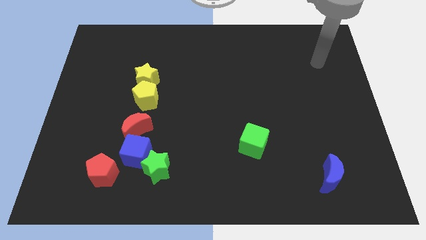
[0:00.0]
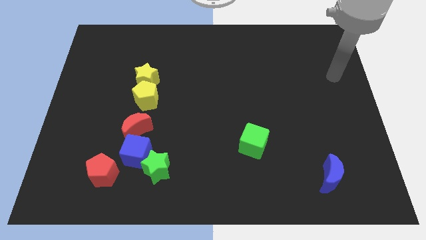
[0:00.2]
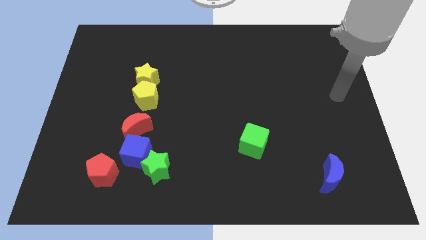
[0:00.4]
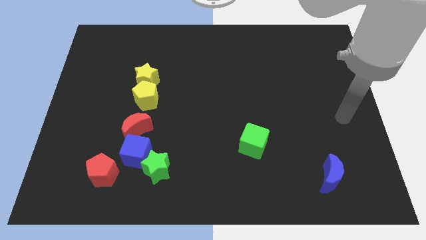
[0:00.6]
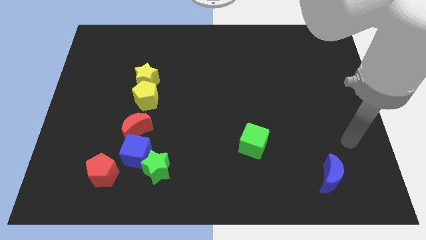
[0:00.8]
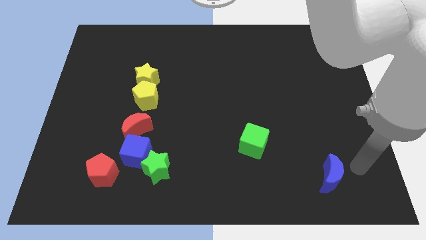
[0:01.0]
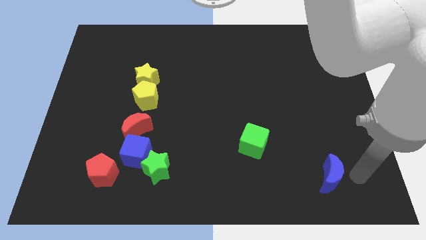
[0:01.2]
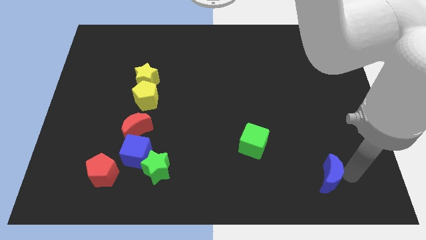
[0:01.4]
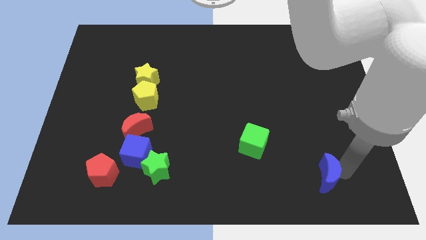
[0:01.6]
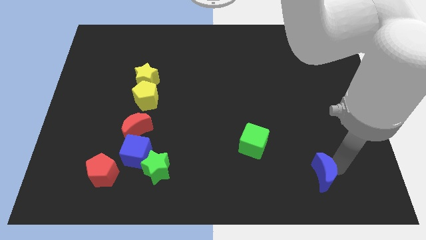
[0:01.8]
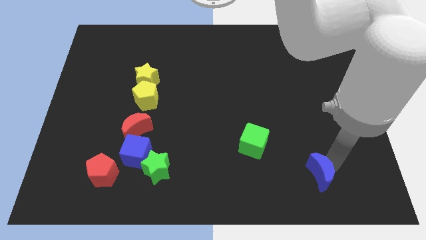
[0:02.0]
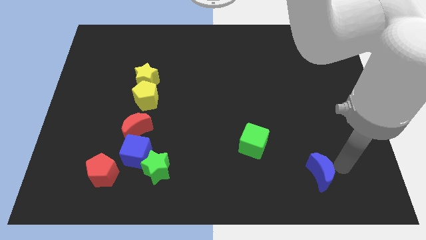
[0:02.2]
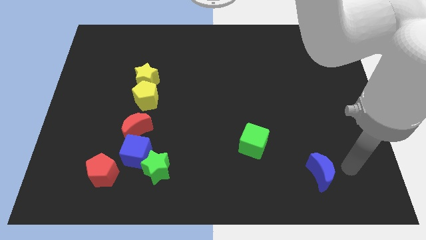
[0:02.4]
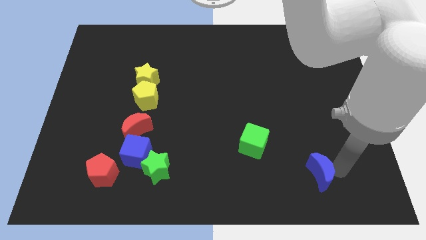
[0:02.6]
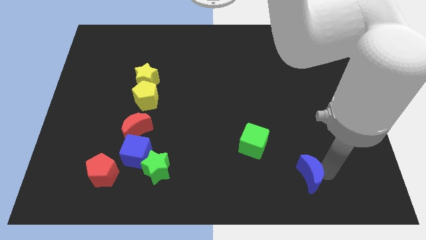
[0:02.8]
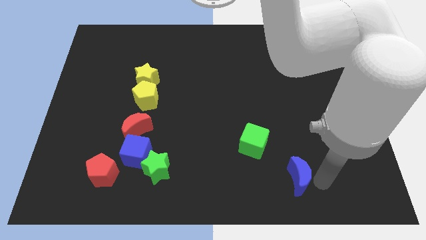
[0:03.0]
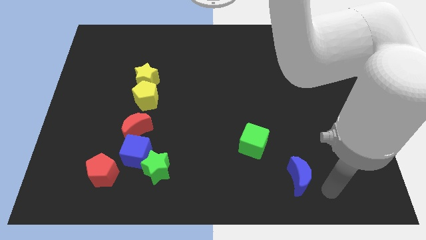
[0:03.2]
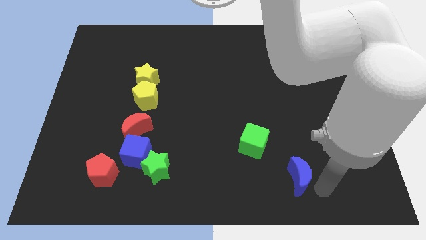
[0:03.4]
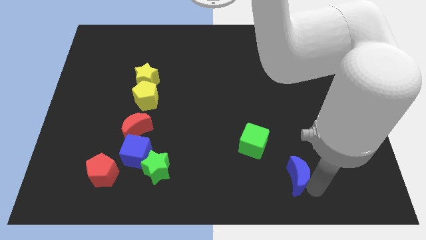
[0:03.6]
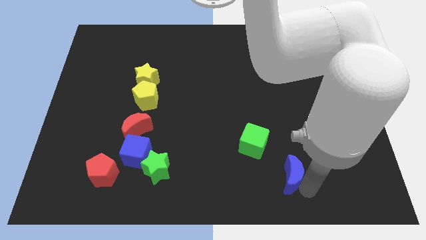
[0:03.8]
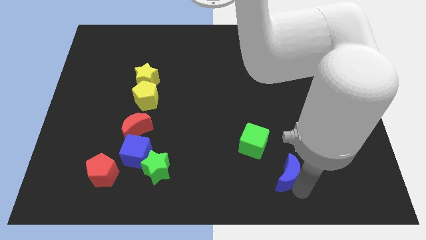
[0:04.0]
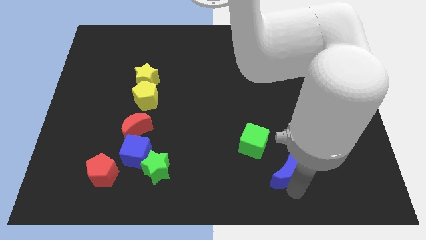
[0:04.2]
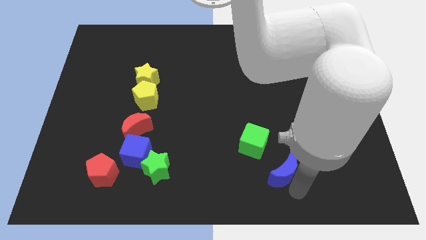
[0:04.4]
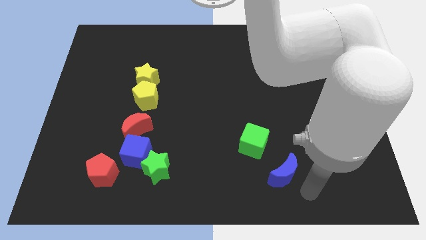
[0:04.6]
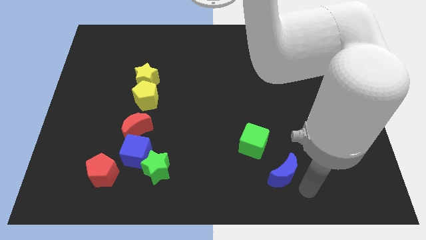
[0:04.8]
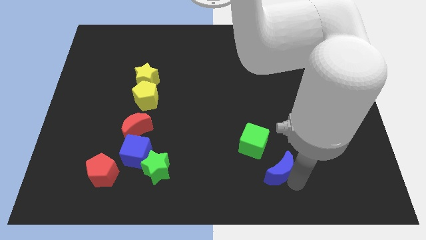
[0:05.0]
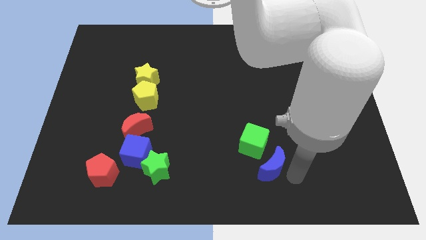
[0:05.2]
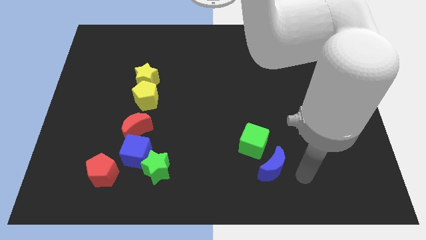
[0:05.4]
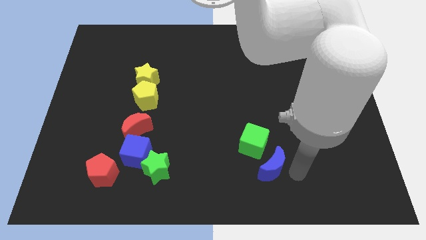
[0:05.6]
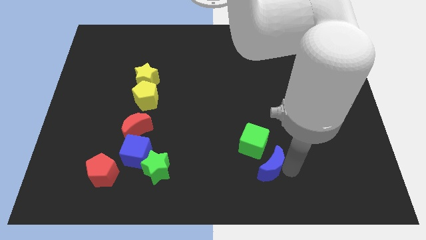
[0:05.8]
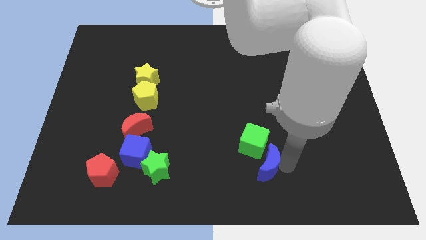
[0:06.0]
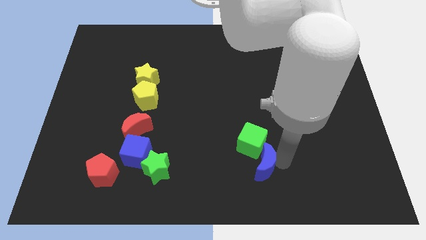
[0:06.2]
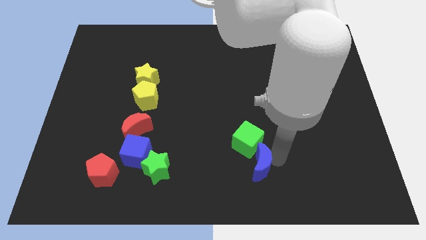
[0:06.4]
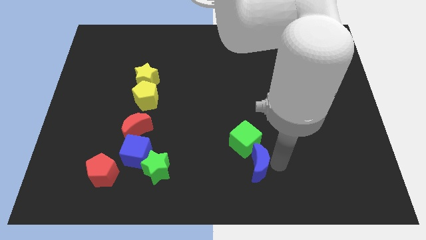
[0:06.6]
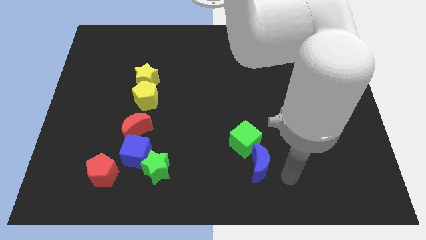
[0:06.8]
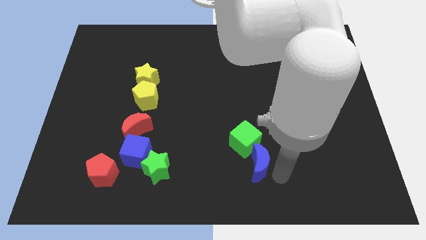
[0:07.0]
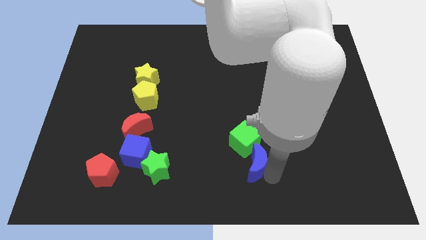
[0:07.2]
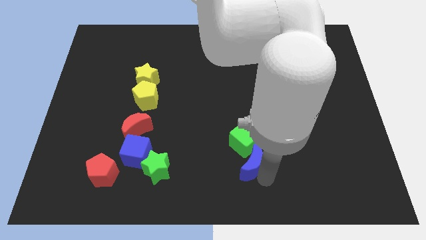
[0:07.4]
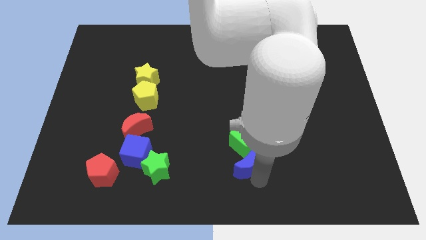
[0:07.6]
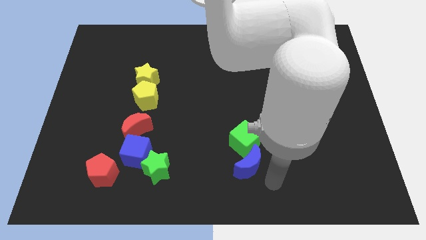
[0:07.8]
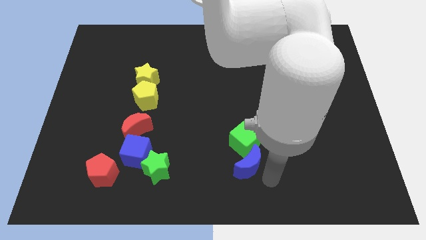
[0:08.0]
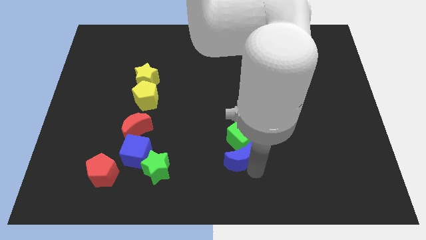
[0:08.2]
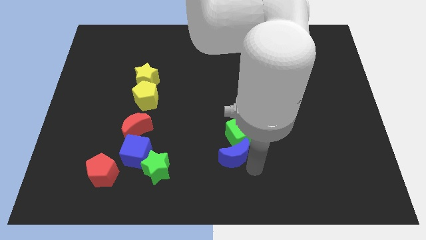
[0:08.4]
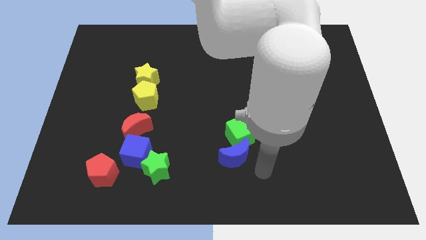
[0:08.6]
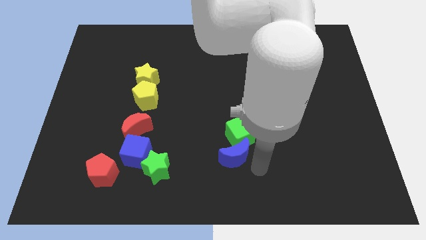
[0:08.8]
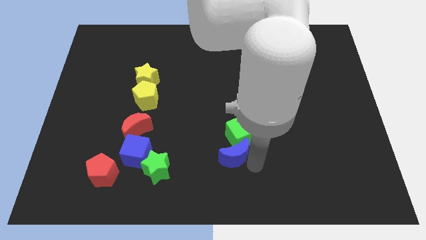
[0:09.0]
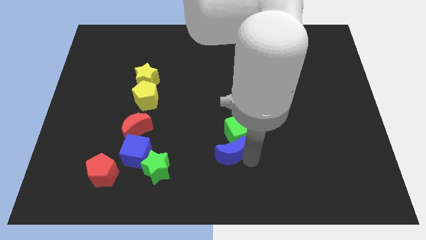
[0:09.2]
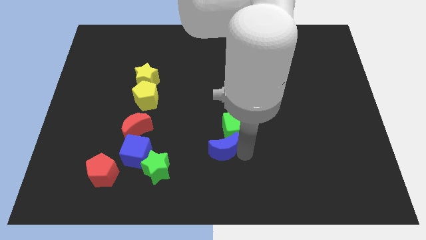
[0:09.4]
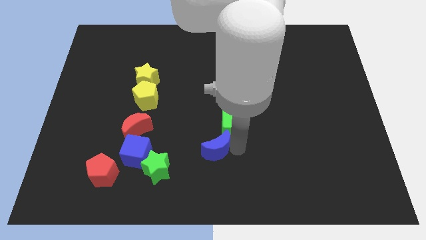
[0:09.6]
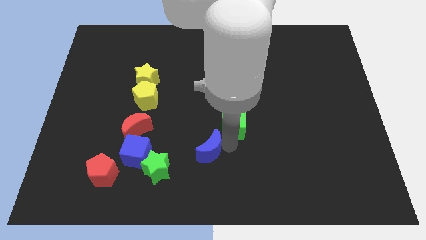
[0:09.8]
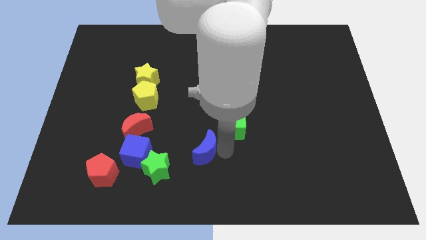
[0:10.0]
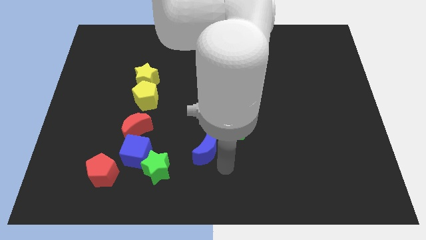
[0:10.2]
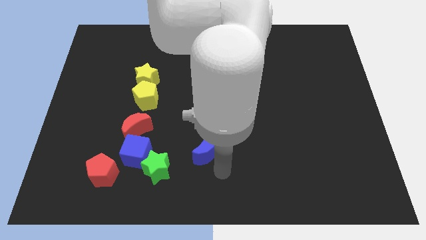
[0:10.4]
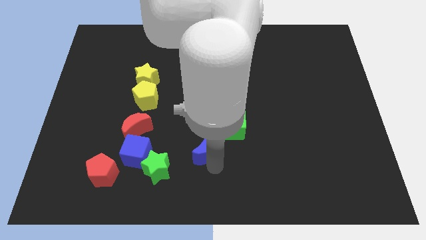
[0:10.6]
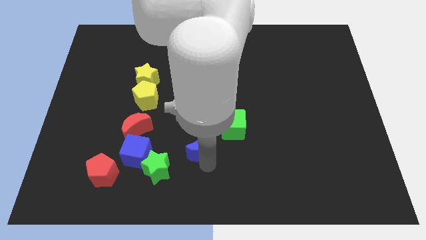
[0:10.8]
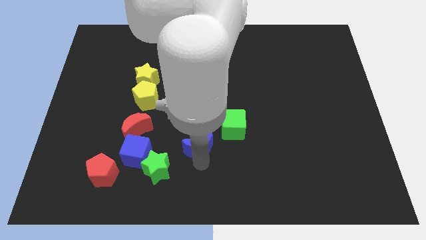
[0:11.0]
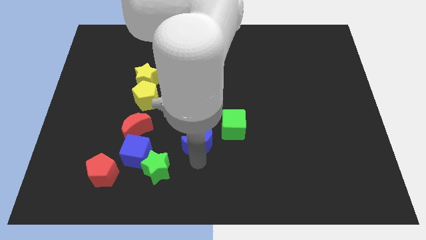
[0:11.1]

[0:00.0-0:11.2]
move the blue moon left of the green cube

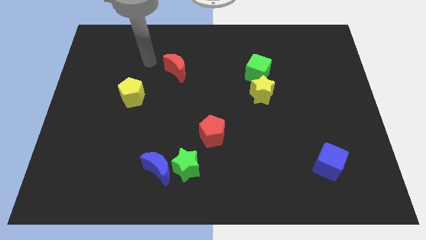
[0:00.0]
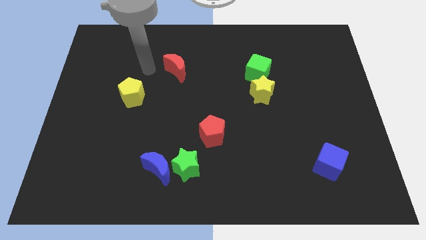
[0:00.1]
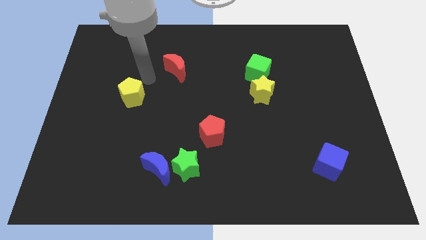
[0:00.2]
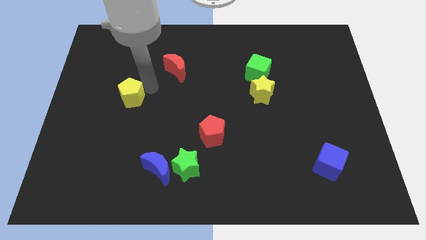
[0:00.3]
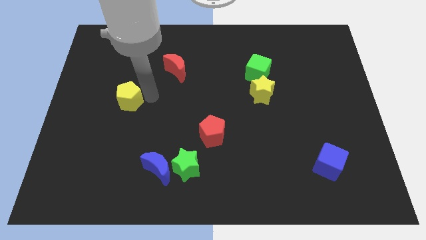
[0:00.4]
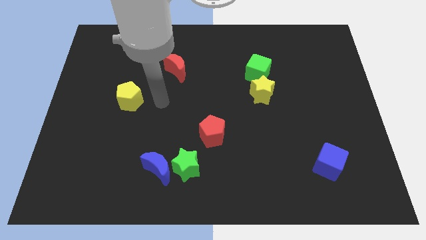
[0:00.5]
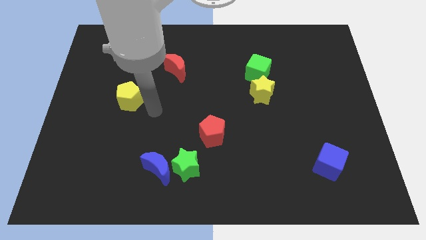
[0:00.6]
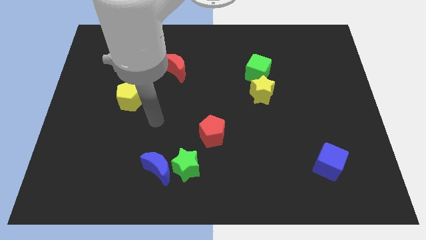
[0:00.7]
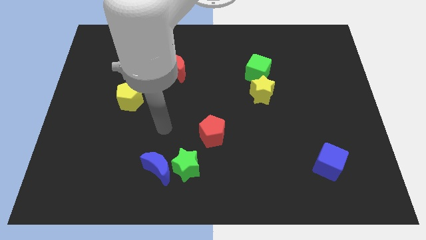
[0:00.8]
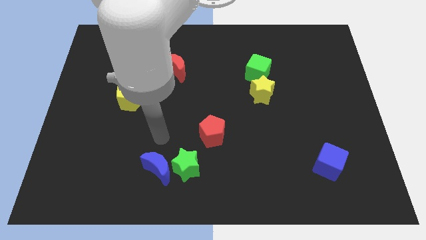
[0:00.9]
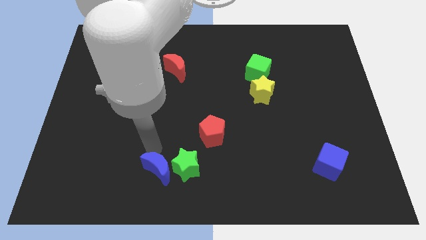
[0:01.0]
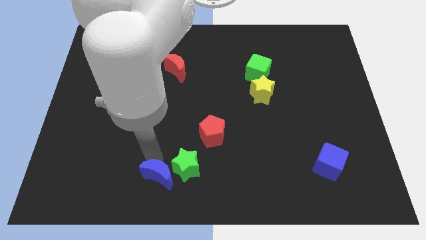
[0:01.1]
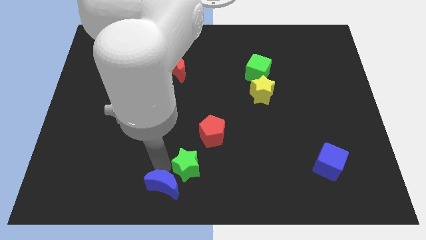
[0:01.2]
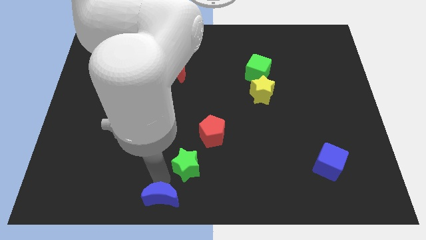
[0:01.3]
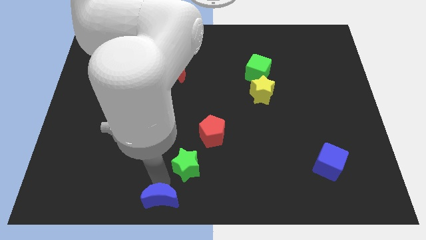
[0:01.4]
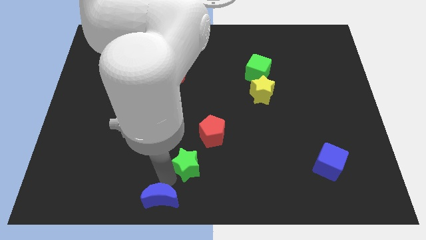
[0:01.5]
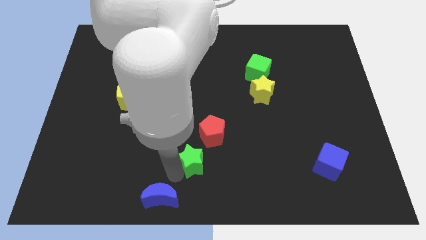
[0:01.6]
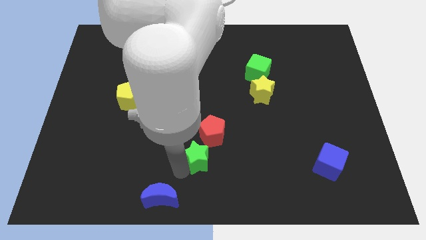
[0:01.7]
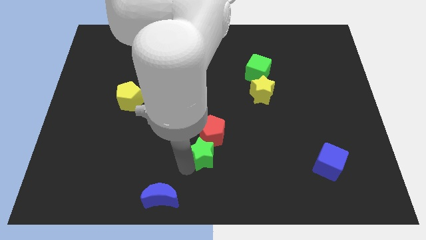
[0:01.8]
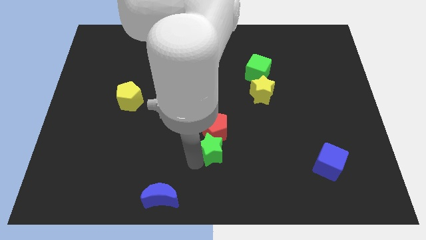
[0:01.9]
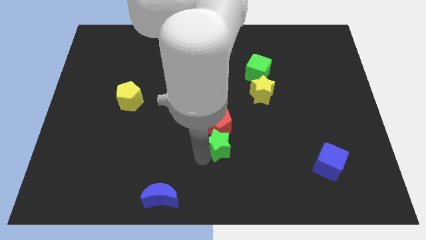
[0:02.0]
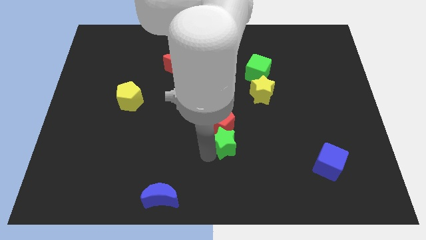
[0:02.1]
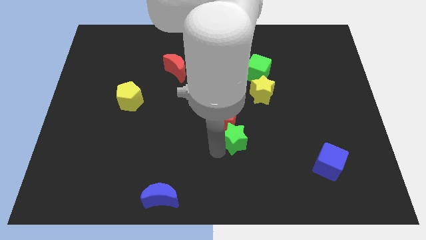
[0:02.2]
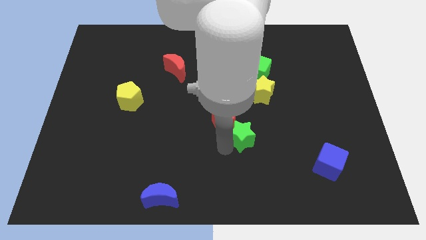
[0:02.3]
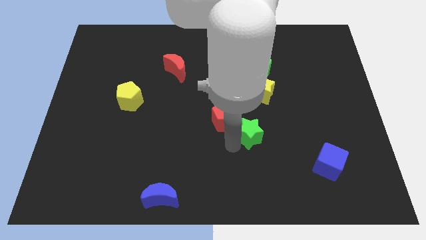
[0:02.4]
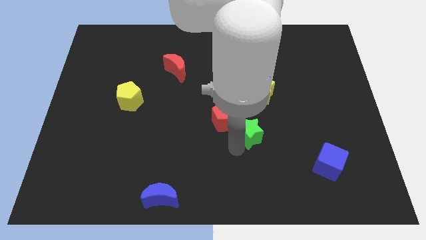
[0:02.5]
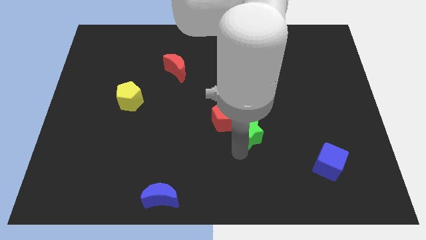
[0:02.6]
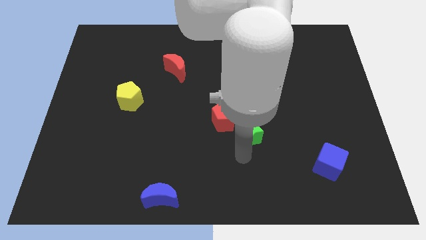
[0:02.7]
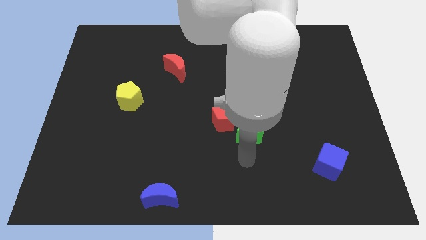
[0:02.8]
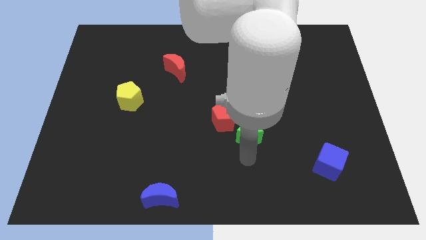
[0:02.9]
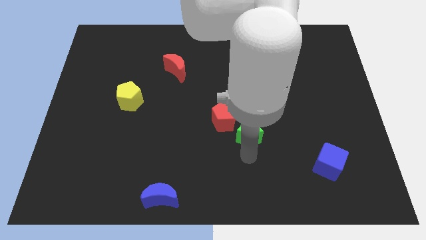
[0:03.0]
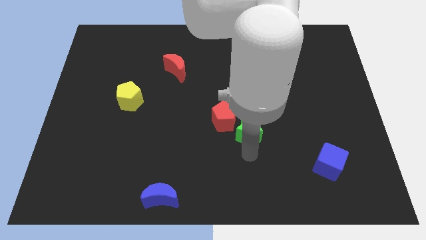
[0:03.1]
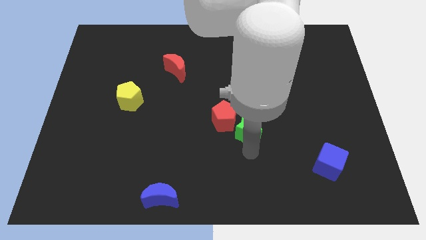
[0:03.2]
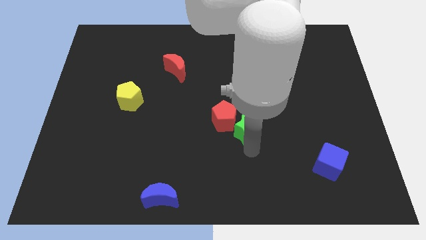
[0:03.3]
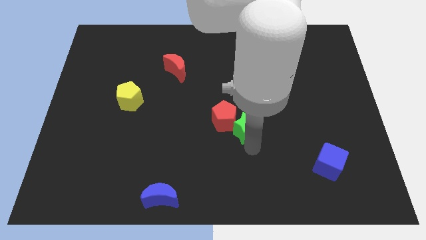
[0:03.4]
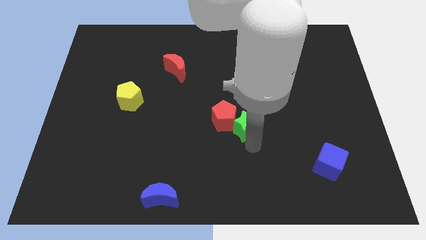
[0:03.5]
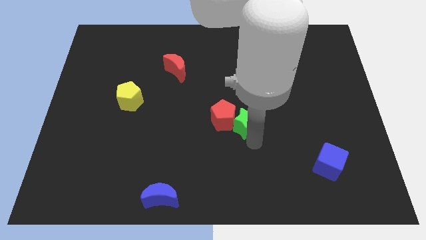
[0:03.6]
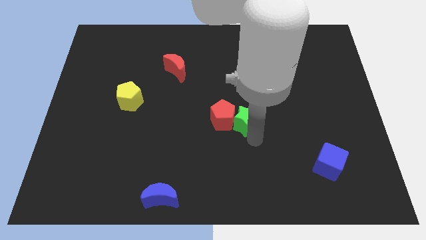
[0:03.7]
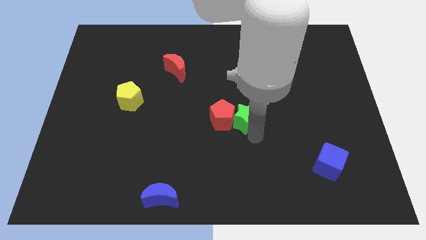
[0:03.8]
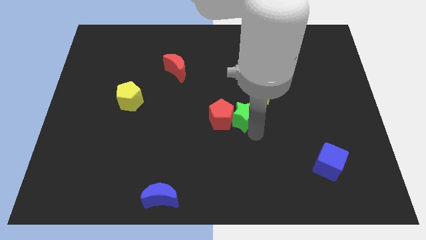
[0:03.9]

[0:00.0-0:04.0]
push the green star to the bottom of the green cube
